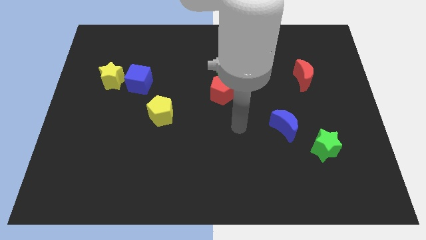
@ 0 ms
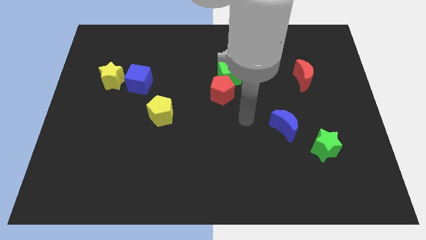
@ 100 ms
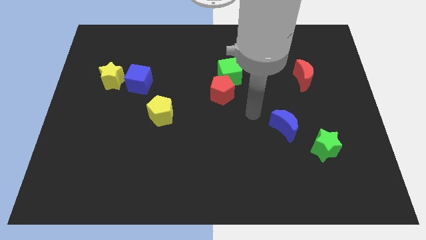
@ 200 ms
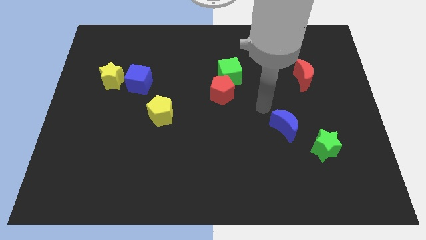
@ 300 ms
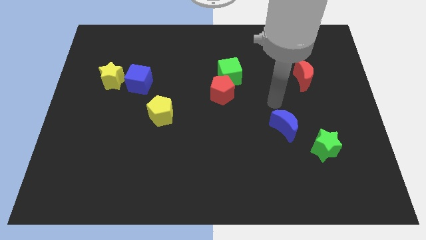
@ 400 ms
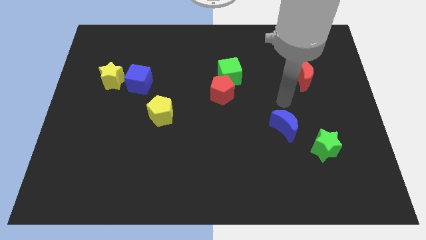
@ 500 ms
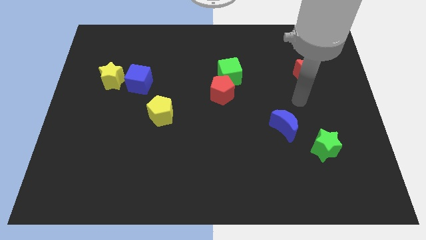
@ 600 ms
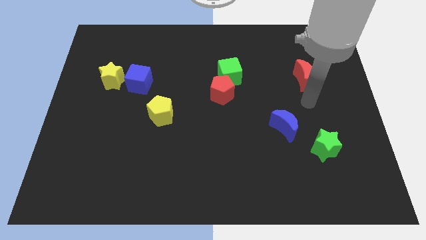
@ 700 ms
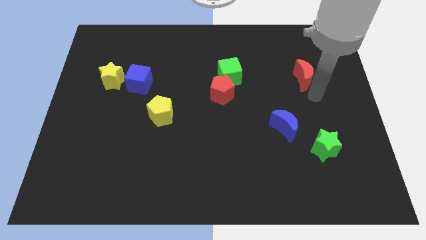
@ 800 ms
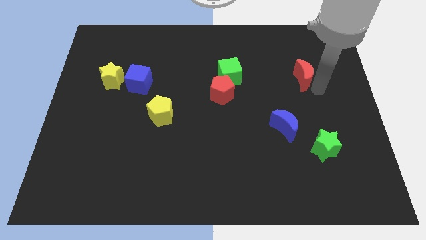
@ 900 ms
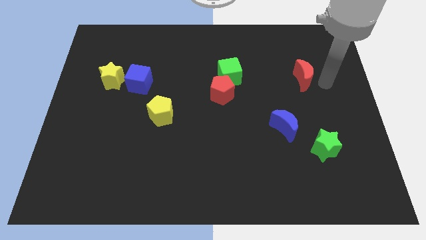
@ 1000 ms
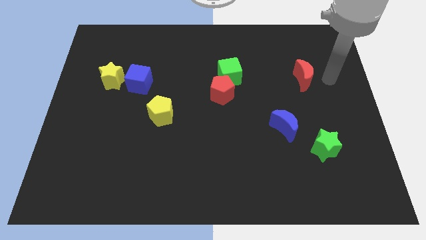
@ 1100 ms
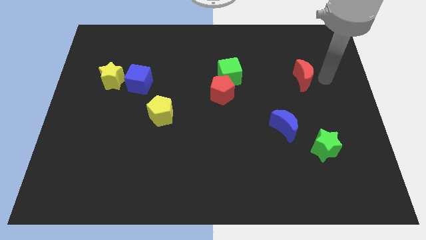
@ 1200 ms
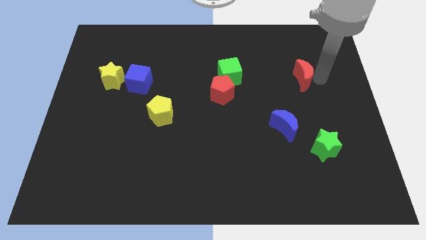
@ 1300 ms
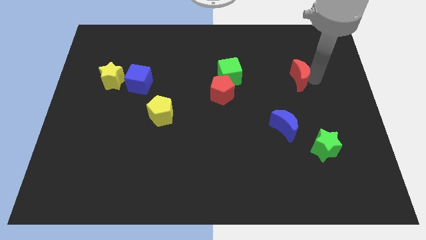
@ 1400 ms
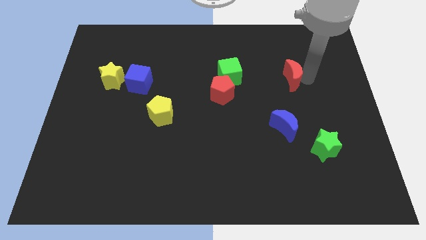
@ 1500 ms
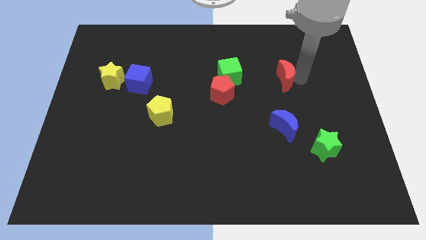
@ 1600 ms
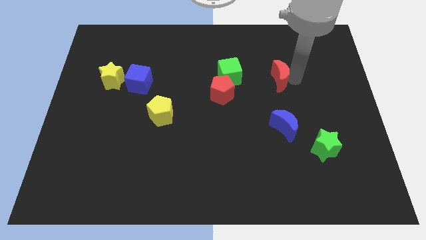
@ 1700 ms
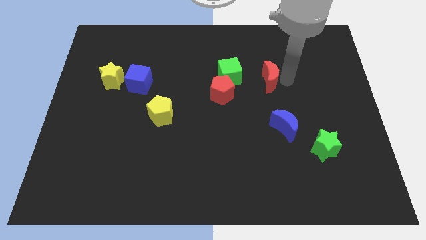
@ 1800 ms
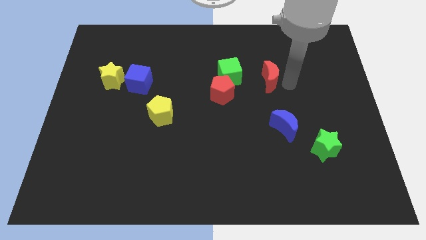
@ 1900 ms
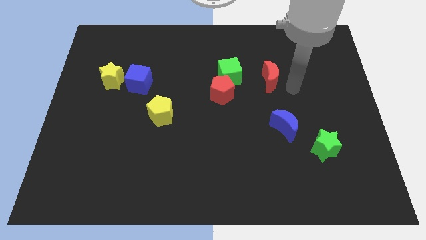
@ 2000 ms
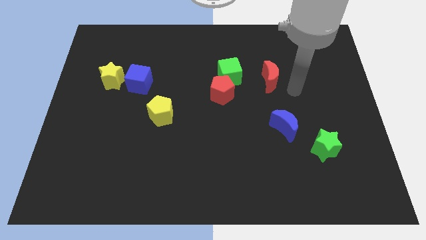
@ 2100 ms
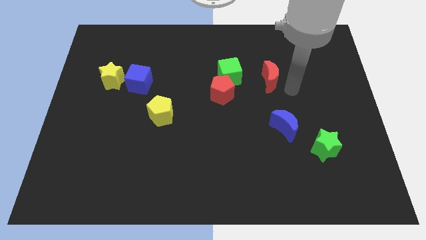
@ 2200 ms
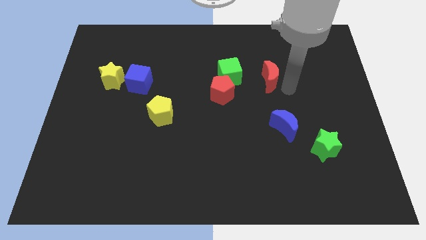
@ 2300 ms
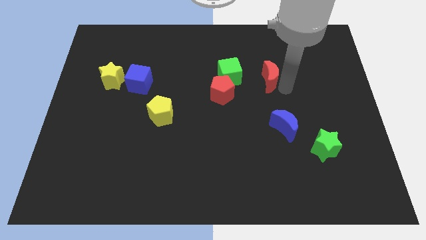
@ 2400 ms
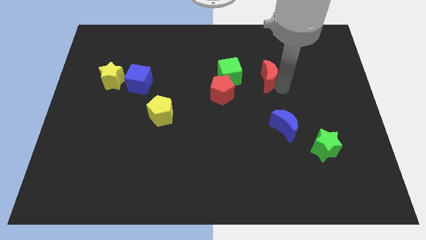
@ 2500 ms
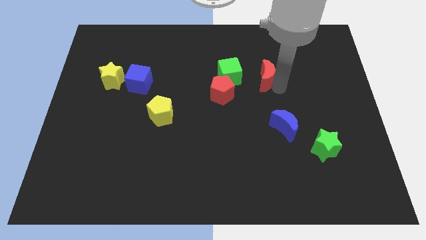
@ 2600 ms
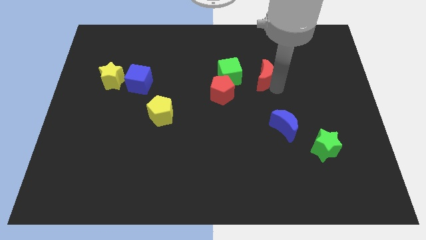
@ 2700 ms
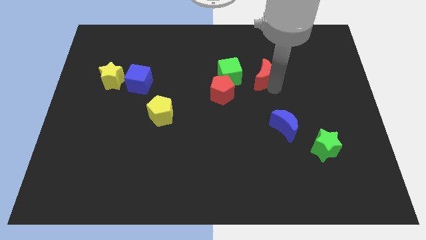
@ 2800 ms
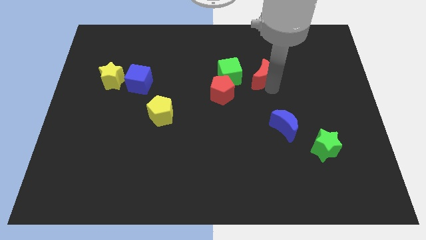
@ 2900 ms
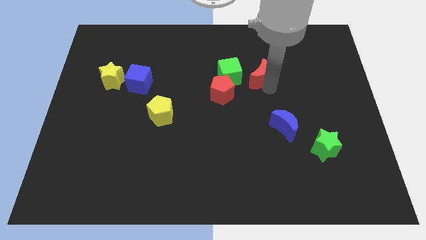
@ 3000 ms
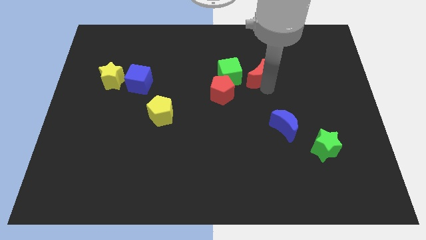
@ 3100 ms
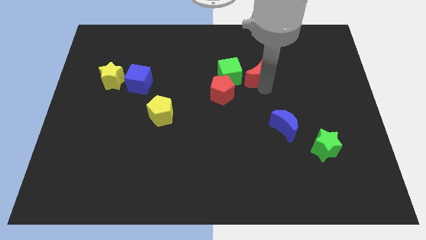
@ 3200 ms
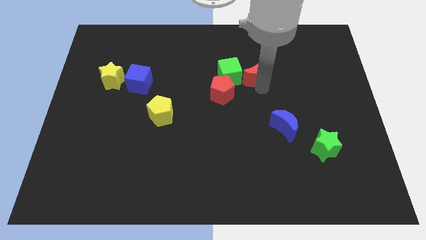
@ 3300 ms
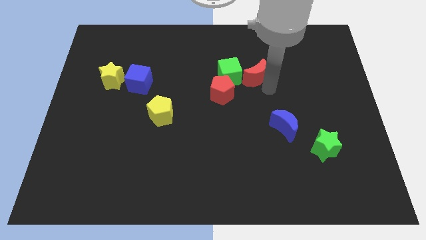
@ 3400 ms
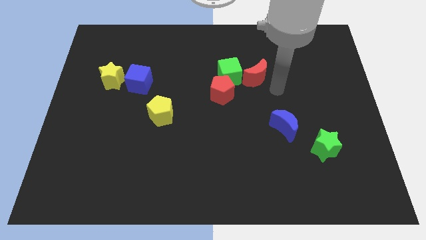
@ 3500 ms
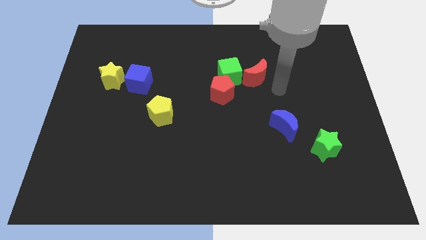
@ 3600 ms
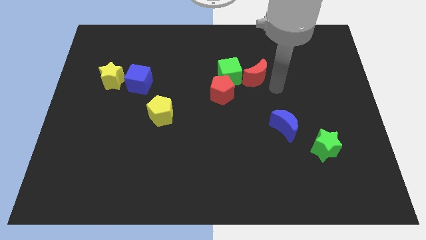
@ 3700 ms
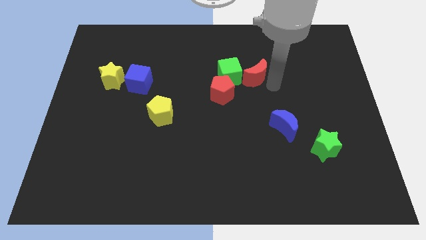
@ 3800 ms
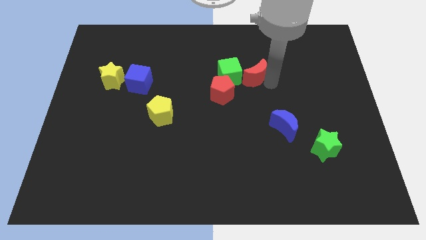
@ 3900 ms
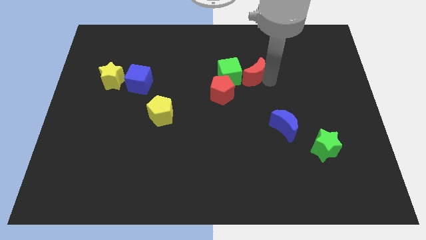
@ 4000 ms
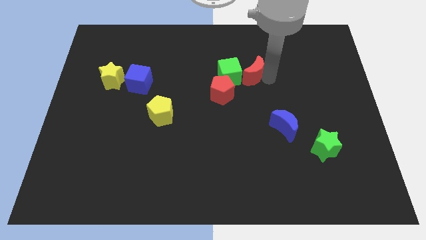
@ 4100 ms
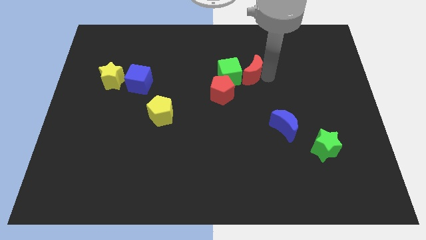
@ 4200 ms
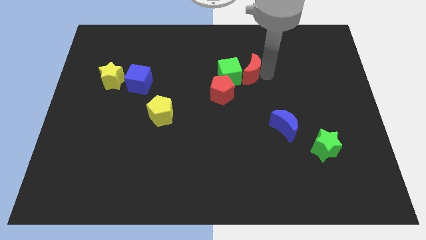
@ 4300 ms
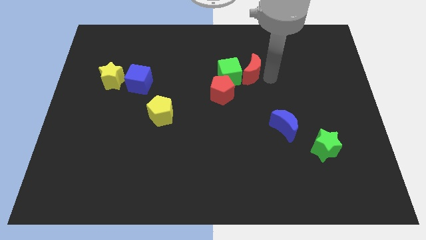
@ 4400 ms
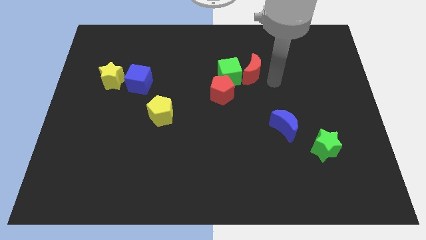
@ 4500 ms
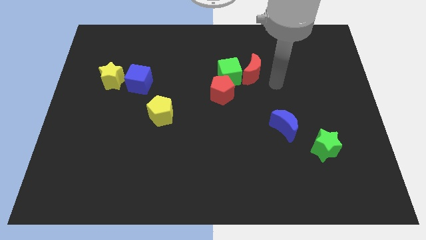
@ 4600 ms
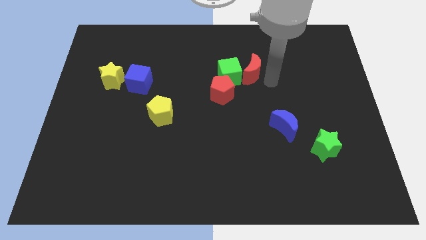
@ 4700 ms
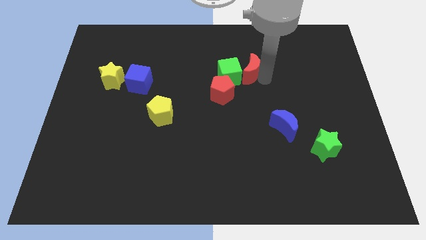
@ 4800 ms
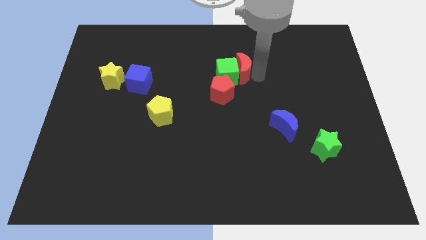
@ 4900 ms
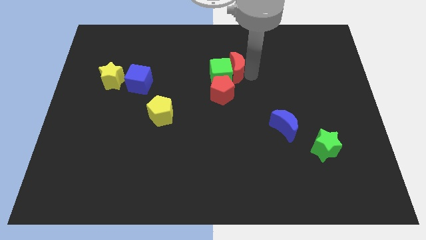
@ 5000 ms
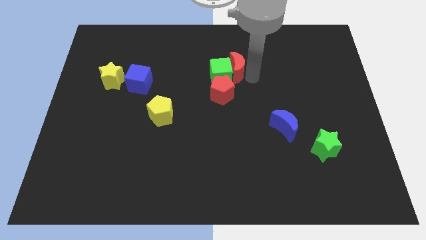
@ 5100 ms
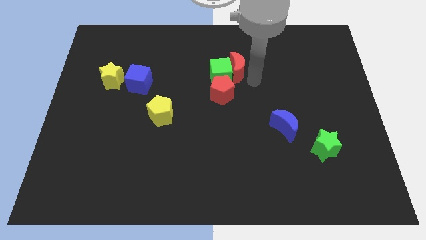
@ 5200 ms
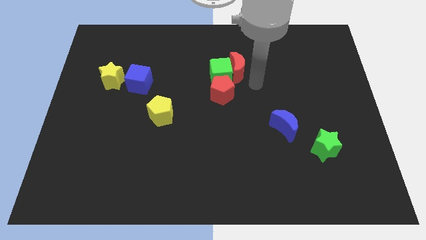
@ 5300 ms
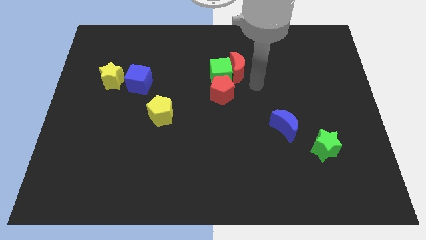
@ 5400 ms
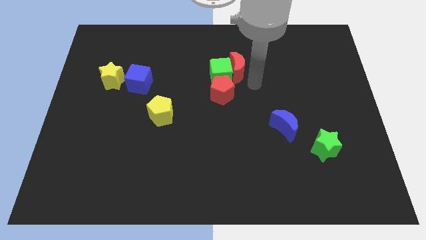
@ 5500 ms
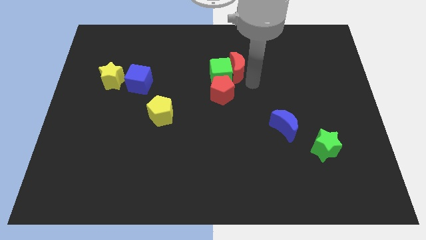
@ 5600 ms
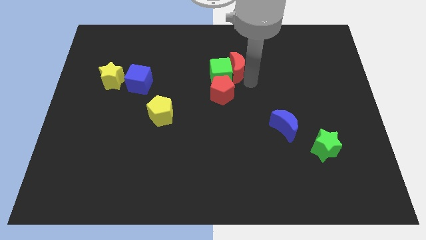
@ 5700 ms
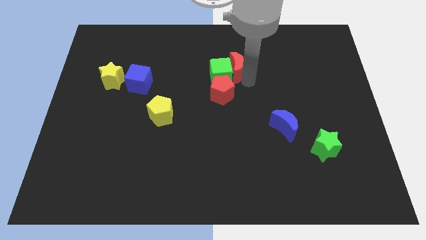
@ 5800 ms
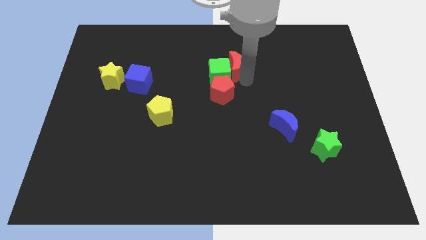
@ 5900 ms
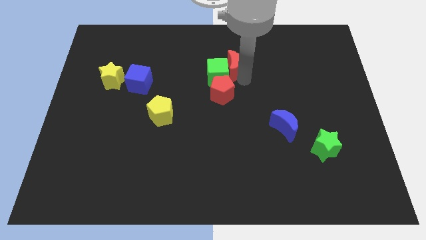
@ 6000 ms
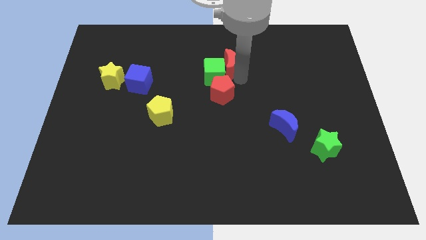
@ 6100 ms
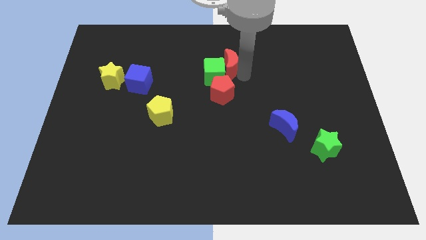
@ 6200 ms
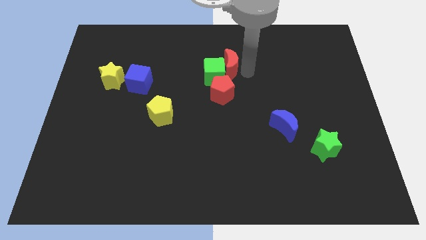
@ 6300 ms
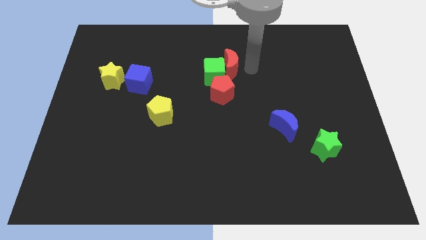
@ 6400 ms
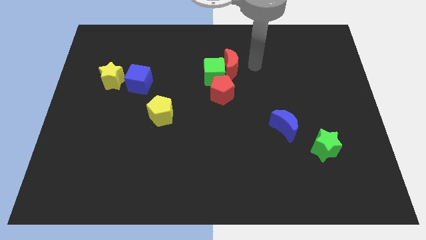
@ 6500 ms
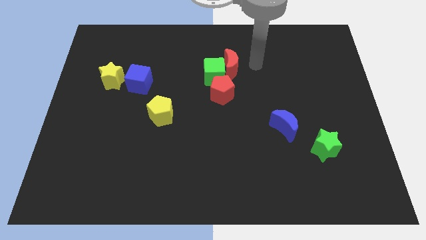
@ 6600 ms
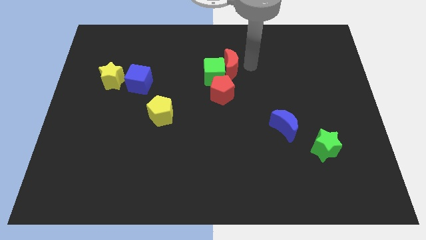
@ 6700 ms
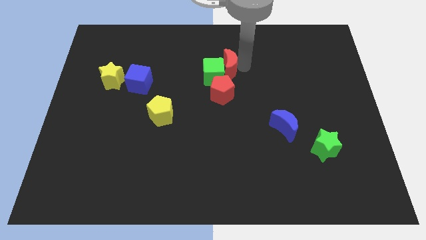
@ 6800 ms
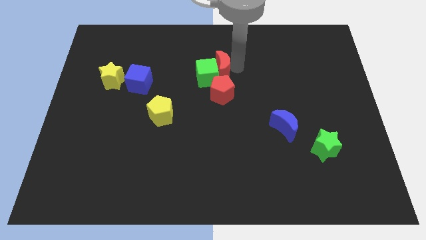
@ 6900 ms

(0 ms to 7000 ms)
push the red moon to the left

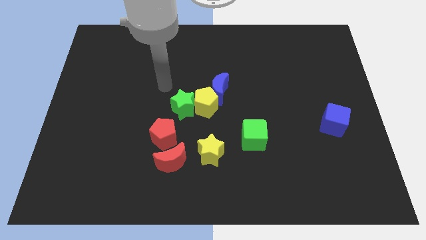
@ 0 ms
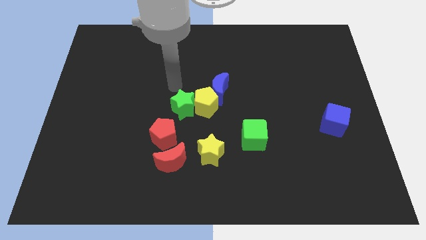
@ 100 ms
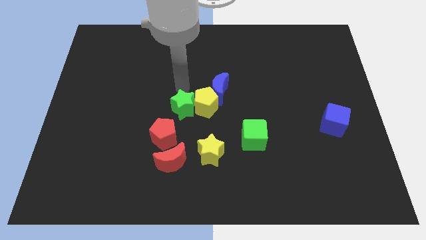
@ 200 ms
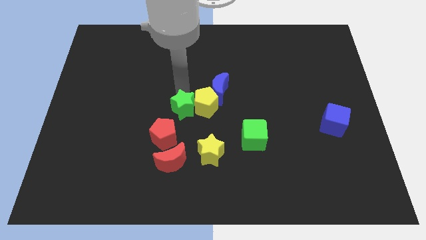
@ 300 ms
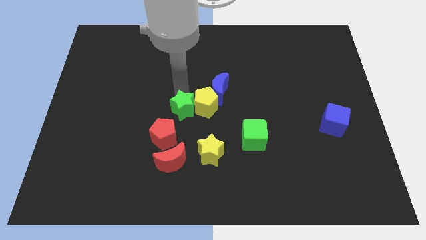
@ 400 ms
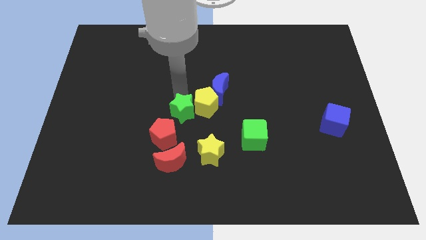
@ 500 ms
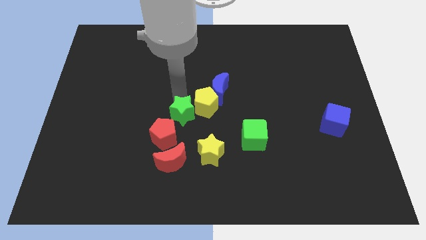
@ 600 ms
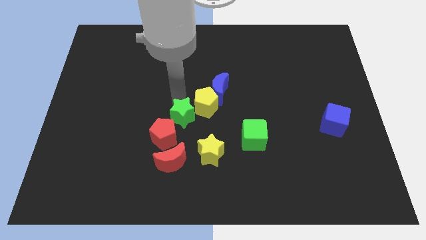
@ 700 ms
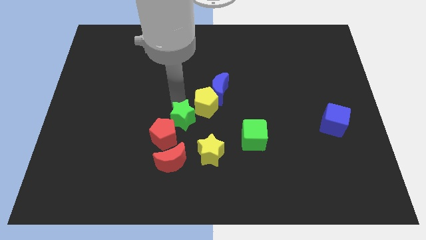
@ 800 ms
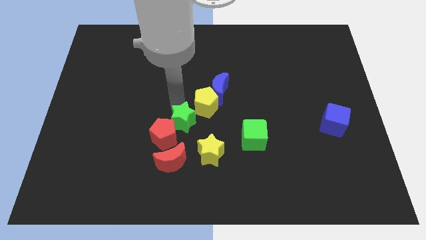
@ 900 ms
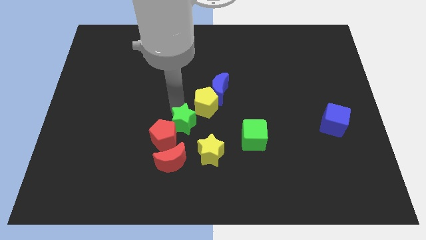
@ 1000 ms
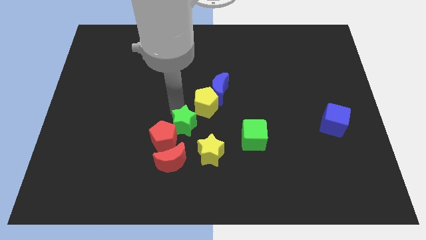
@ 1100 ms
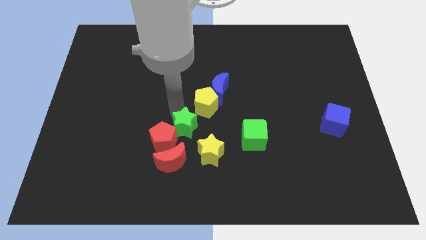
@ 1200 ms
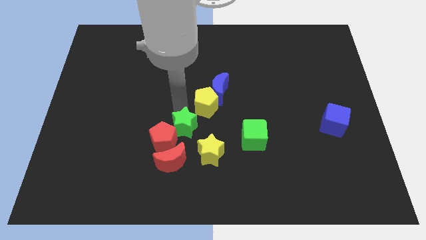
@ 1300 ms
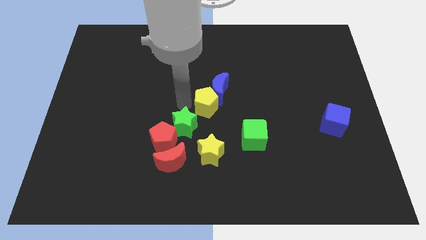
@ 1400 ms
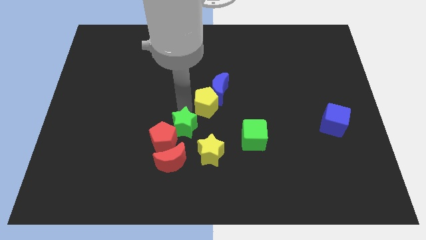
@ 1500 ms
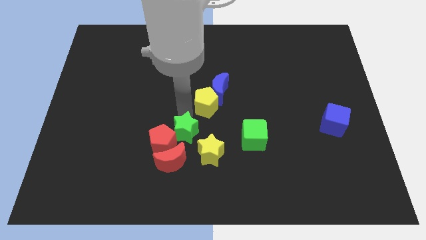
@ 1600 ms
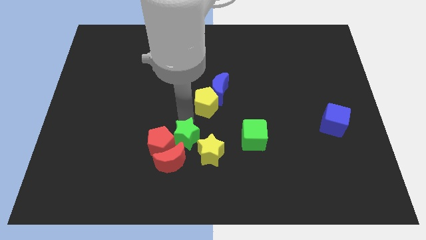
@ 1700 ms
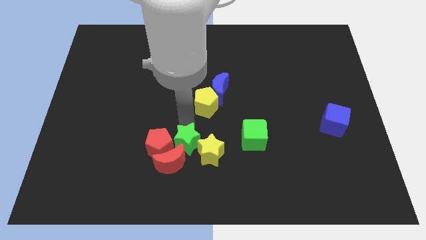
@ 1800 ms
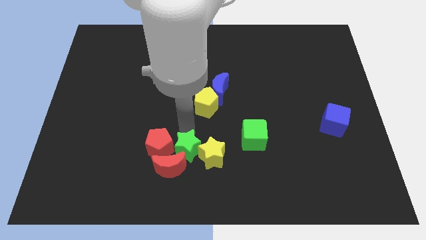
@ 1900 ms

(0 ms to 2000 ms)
push the green star down and to the right diagonally somewhat
